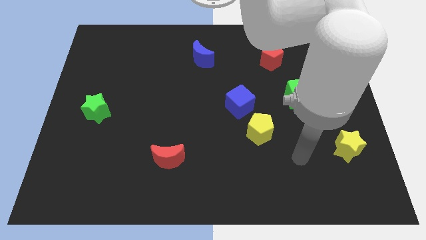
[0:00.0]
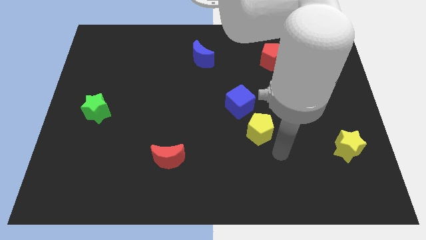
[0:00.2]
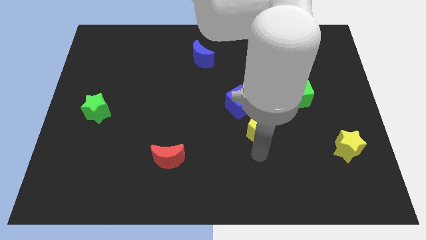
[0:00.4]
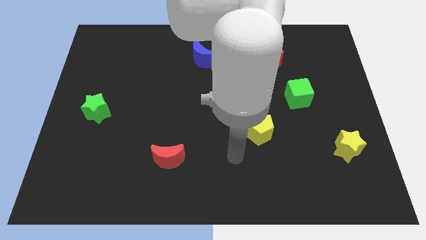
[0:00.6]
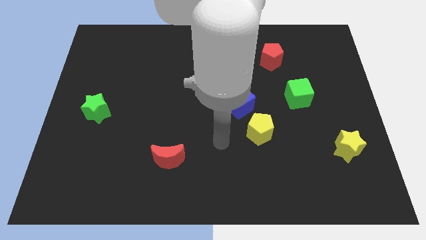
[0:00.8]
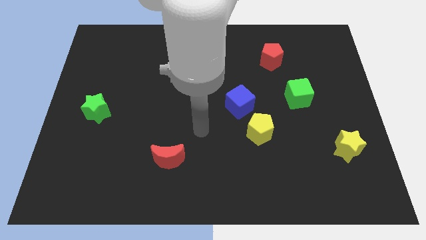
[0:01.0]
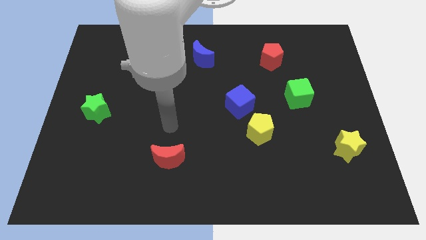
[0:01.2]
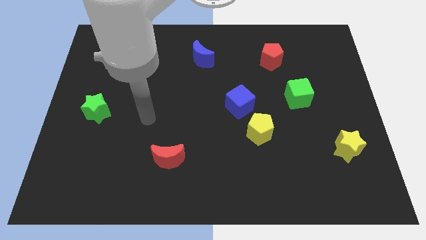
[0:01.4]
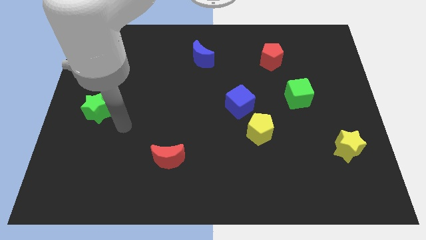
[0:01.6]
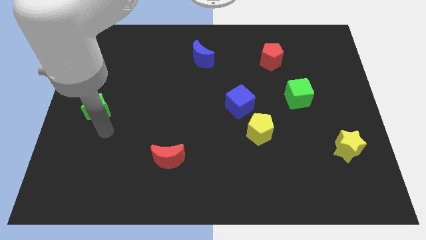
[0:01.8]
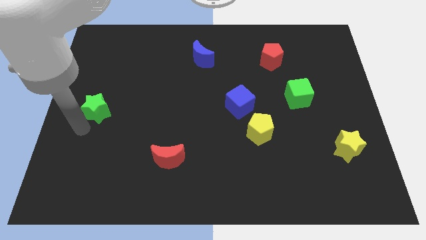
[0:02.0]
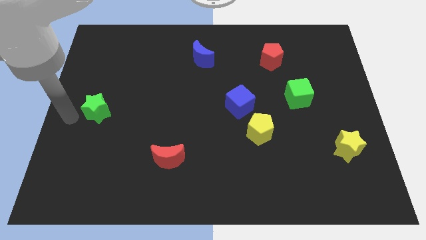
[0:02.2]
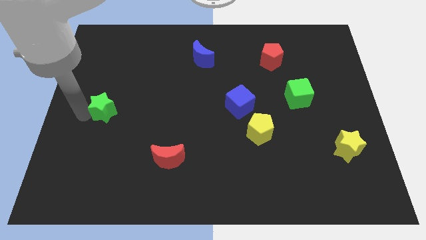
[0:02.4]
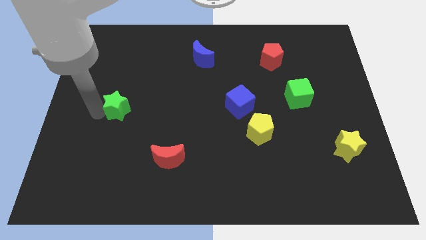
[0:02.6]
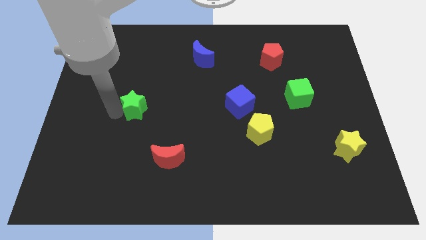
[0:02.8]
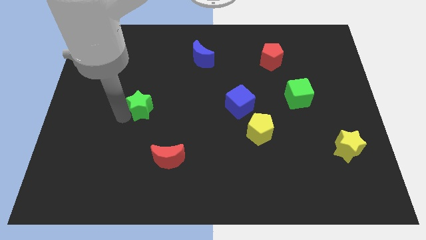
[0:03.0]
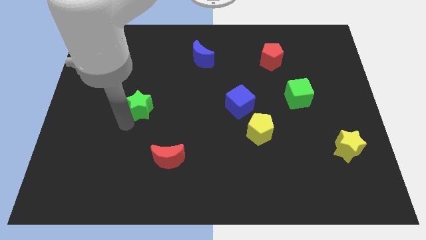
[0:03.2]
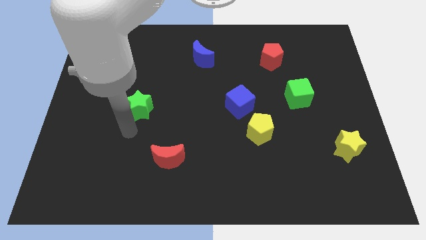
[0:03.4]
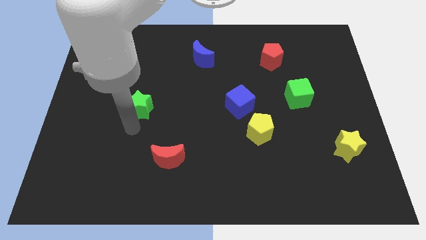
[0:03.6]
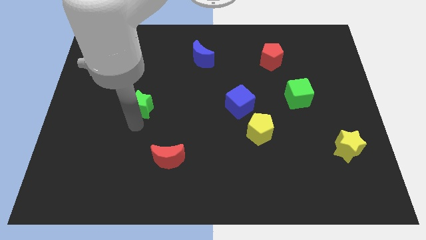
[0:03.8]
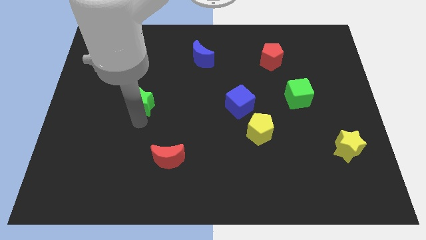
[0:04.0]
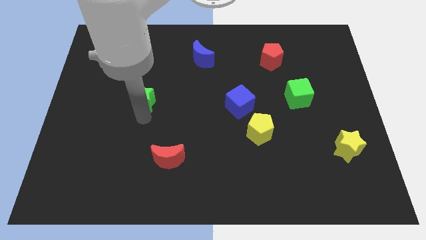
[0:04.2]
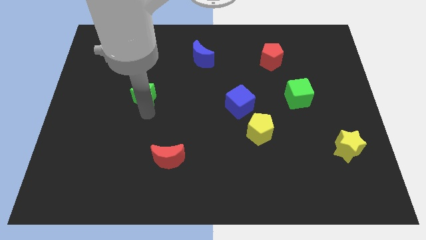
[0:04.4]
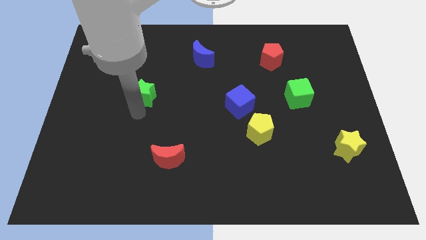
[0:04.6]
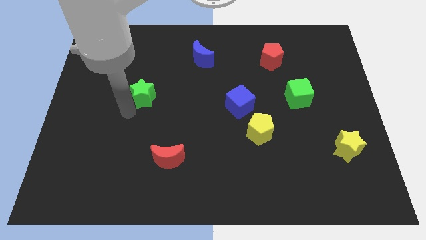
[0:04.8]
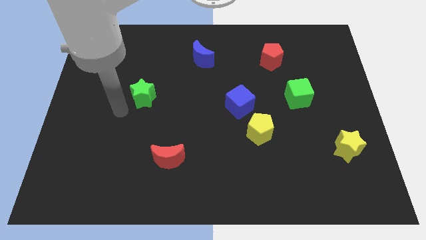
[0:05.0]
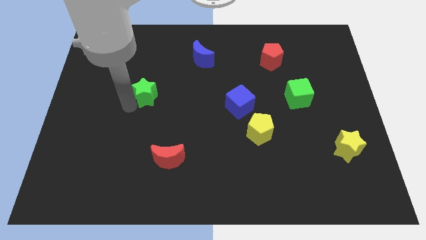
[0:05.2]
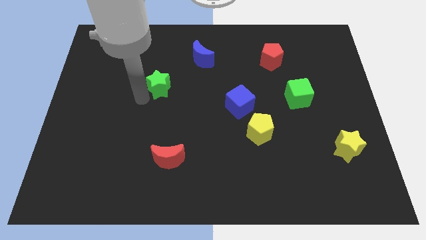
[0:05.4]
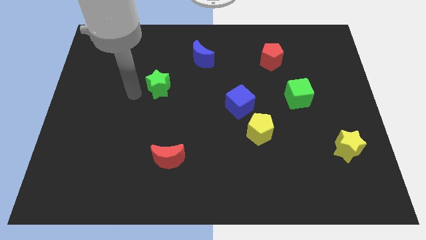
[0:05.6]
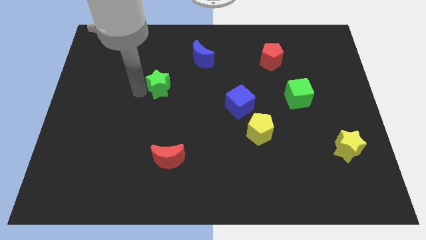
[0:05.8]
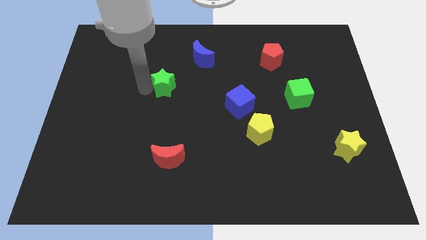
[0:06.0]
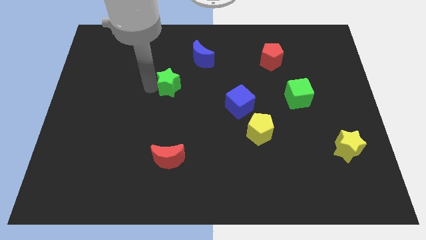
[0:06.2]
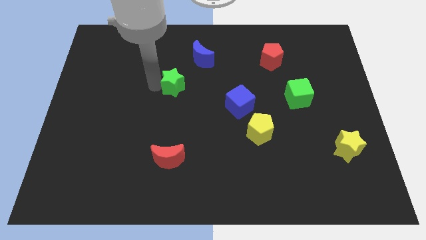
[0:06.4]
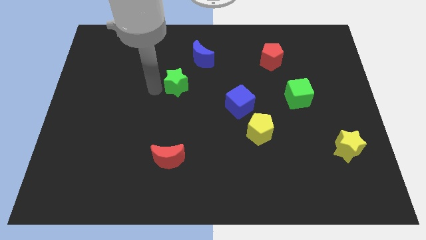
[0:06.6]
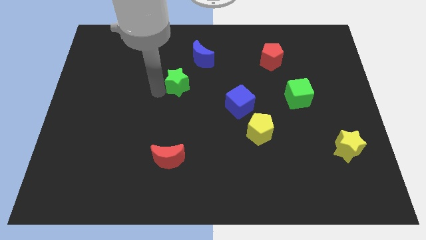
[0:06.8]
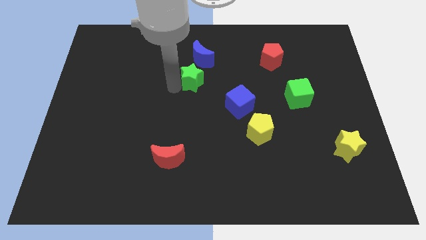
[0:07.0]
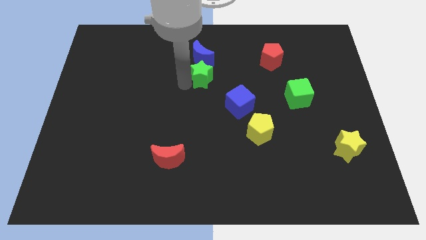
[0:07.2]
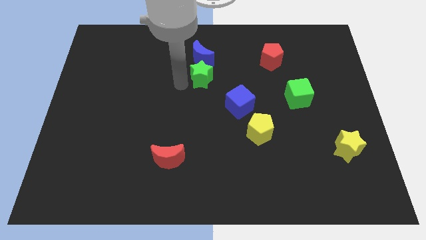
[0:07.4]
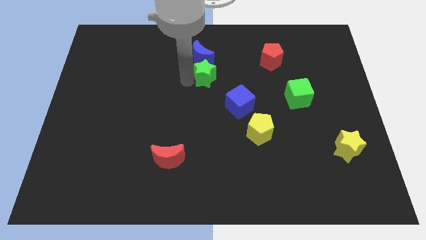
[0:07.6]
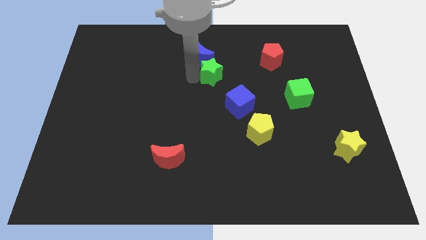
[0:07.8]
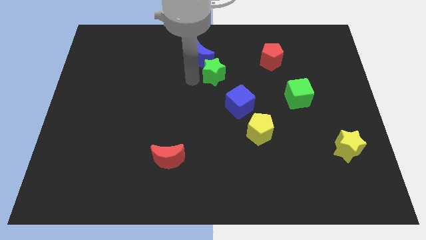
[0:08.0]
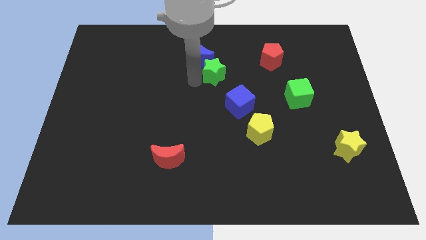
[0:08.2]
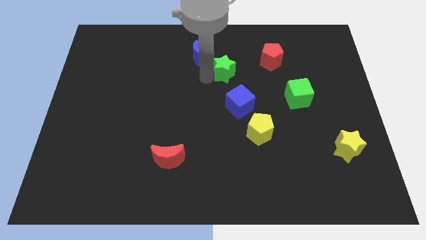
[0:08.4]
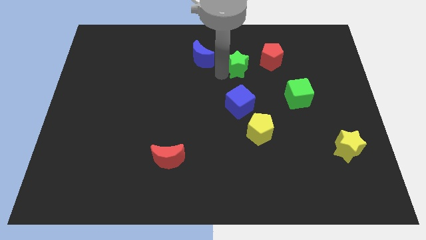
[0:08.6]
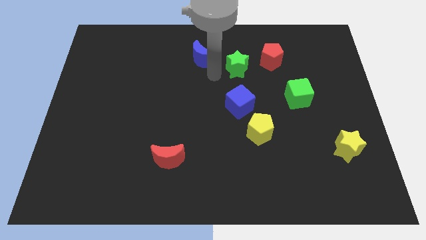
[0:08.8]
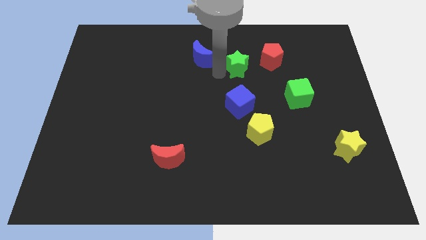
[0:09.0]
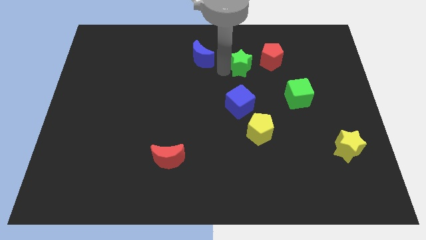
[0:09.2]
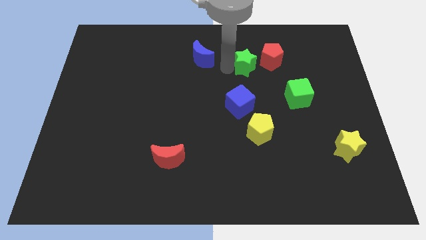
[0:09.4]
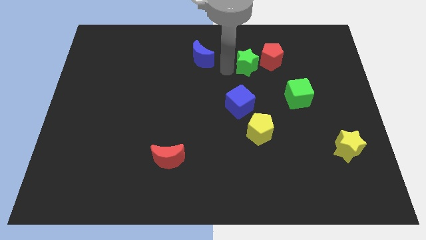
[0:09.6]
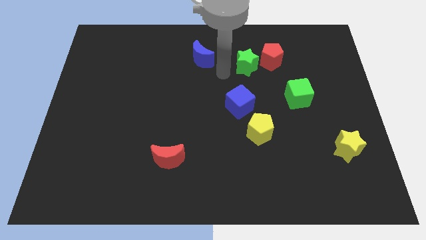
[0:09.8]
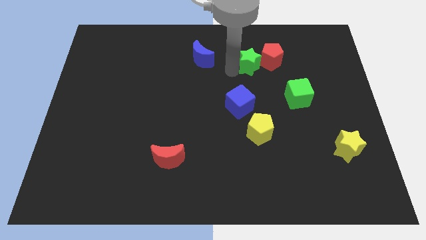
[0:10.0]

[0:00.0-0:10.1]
push the green star next to the red pentagon

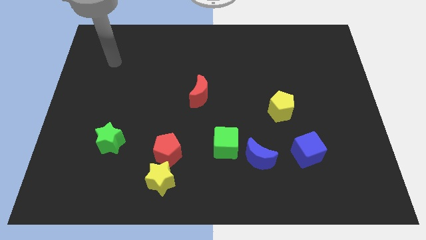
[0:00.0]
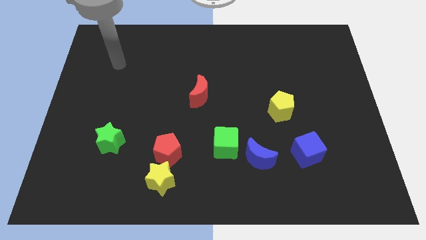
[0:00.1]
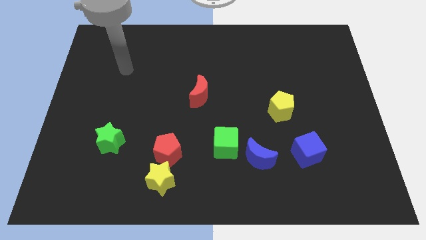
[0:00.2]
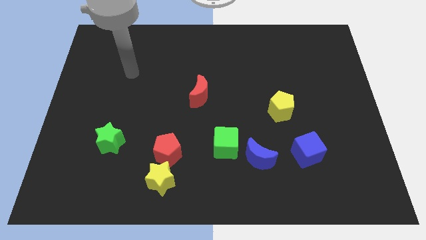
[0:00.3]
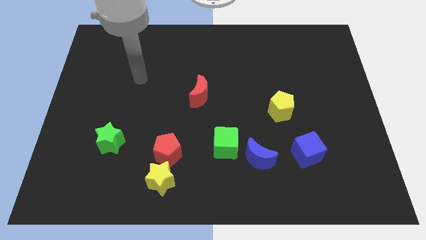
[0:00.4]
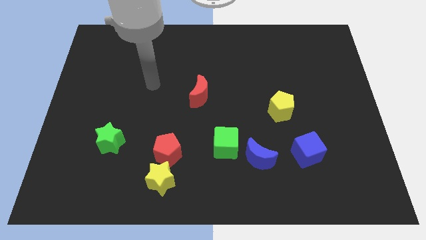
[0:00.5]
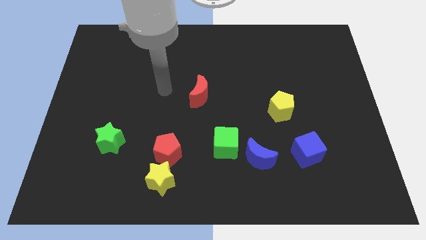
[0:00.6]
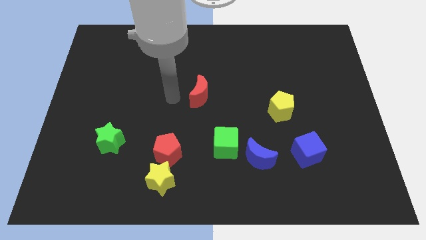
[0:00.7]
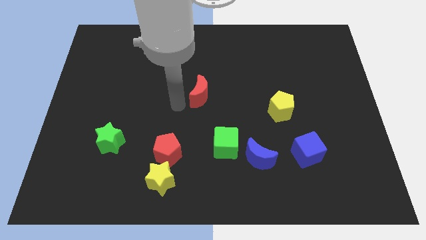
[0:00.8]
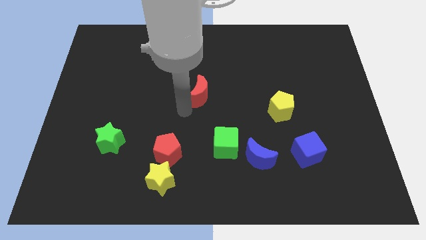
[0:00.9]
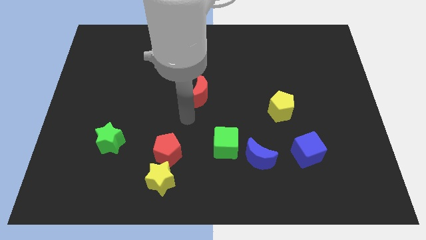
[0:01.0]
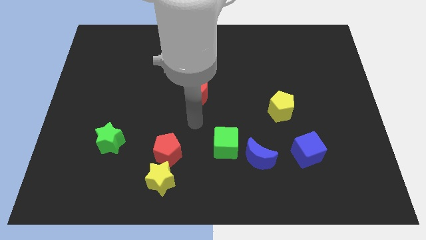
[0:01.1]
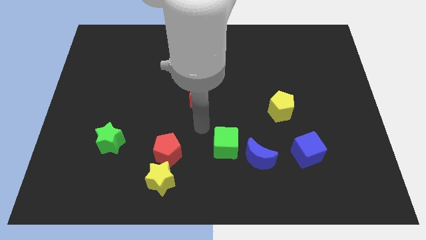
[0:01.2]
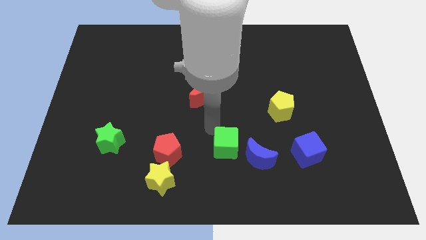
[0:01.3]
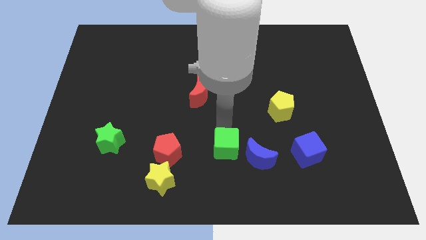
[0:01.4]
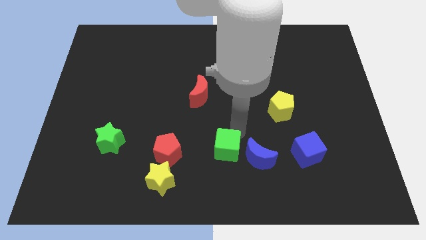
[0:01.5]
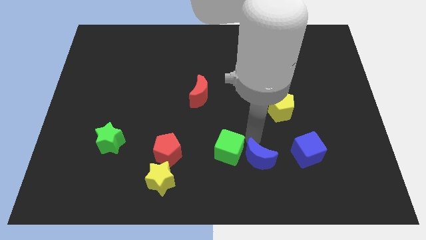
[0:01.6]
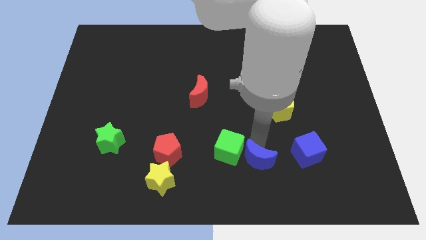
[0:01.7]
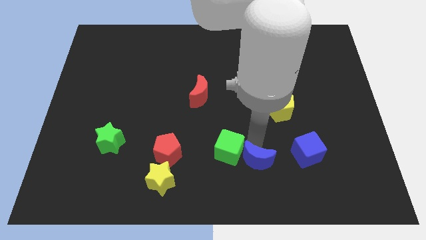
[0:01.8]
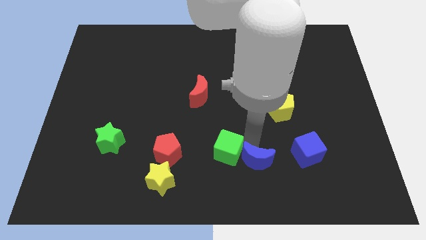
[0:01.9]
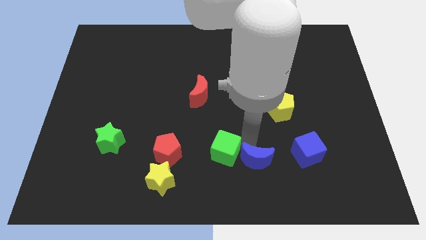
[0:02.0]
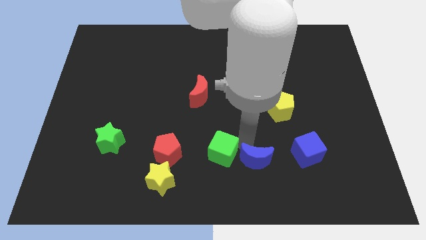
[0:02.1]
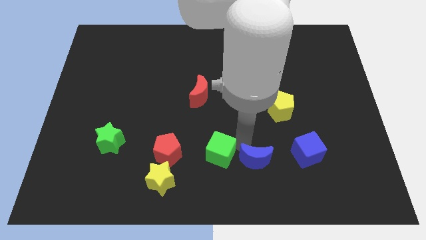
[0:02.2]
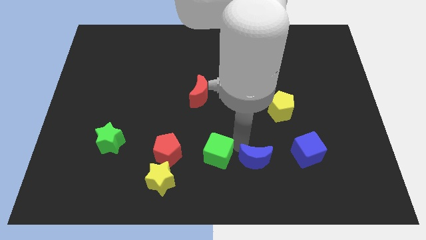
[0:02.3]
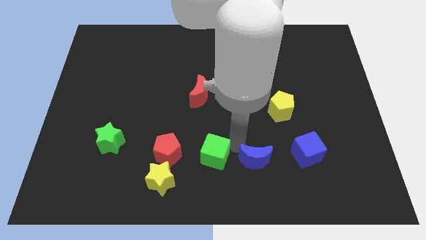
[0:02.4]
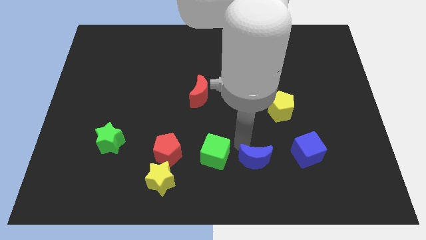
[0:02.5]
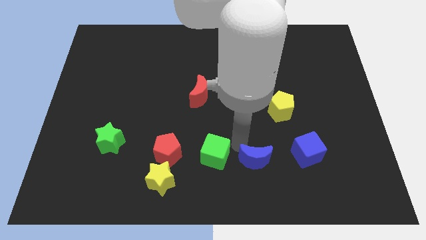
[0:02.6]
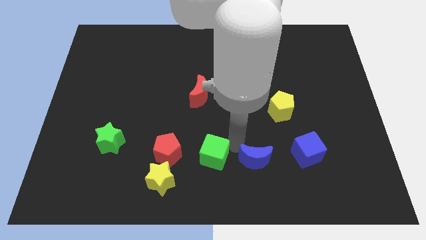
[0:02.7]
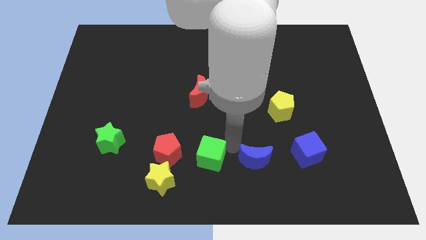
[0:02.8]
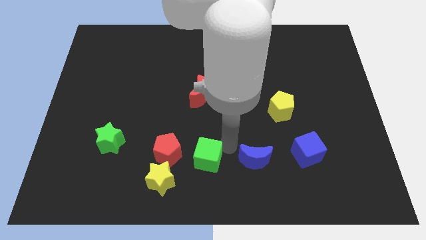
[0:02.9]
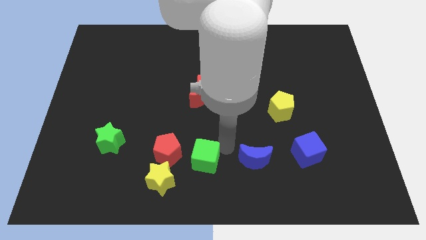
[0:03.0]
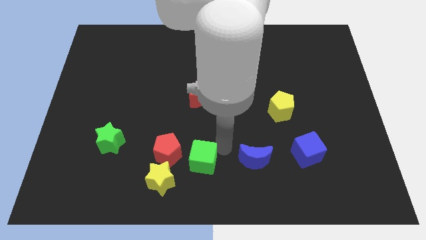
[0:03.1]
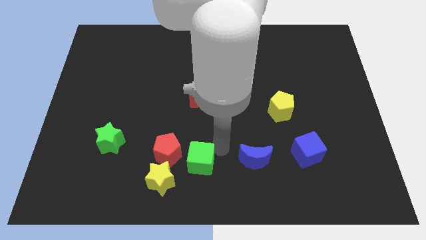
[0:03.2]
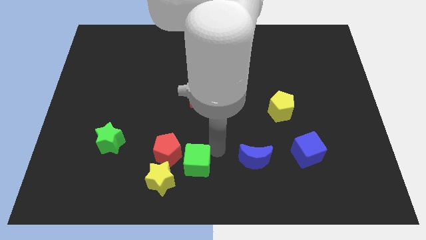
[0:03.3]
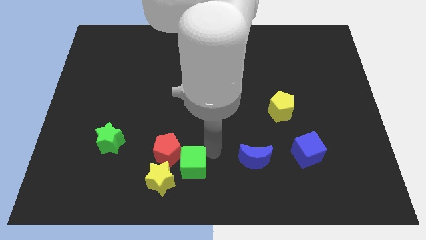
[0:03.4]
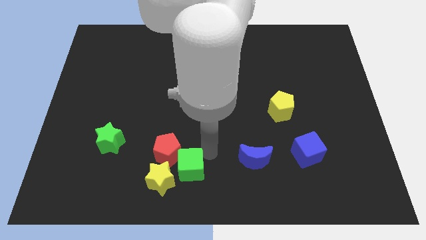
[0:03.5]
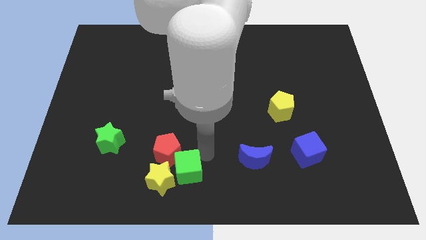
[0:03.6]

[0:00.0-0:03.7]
move the green cube to the yellow star
